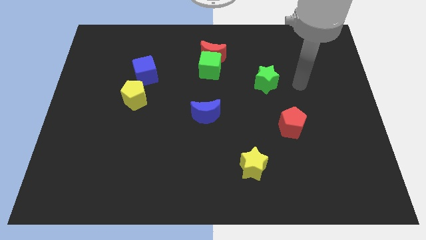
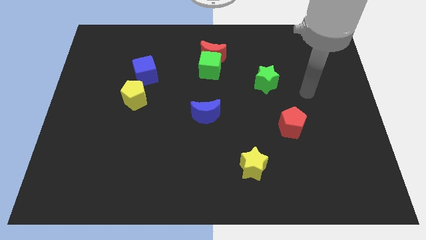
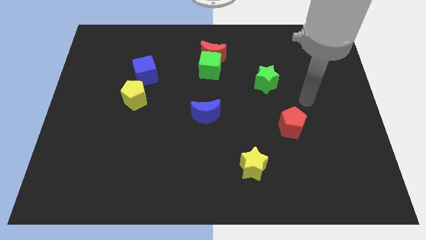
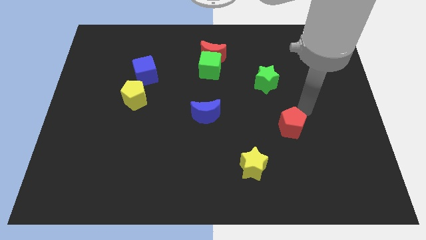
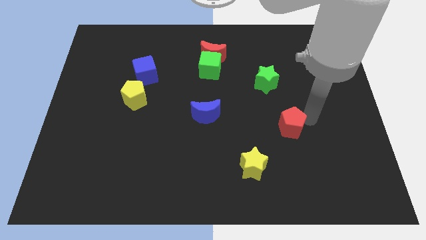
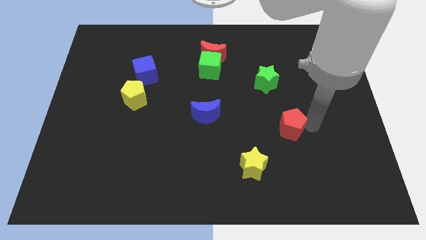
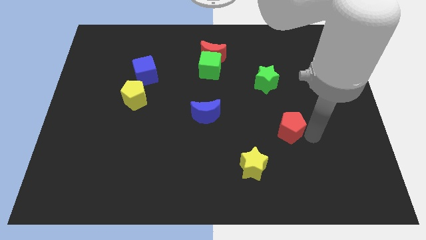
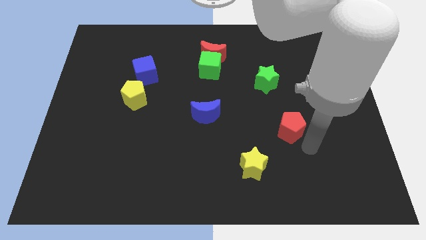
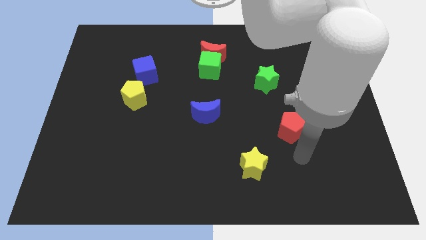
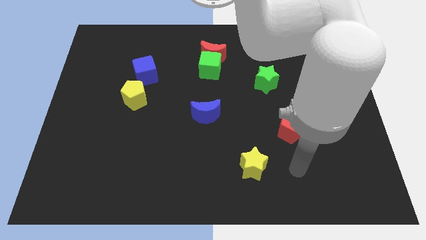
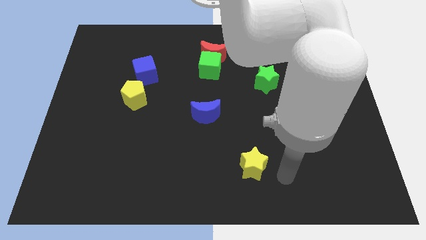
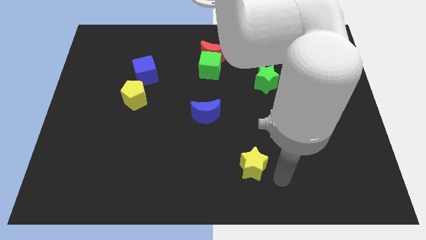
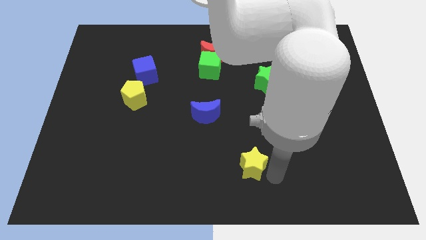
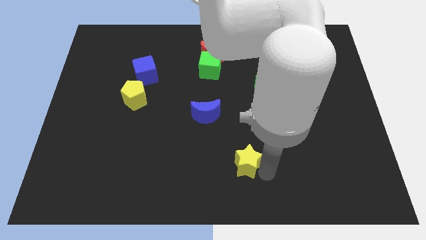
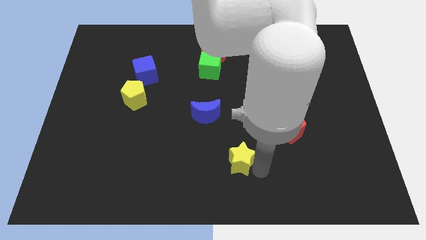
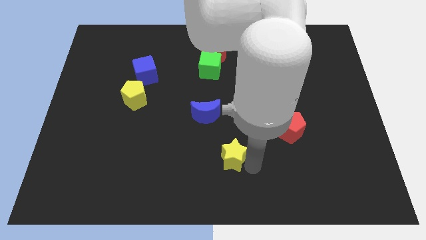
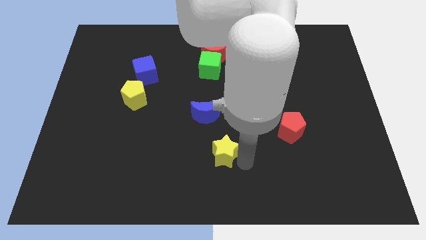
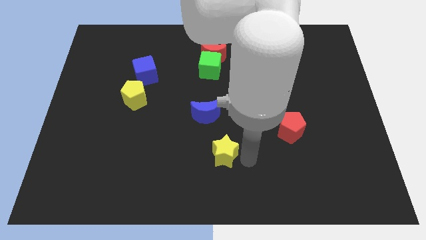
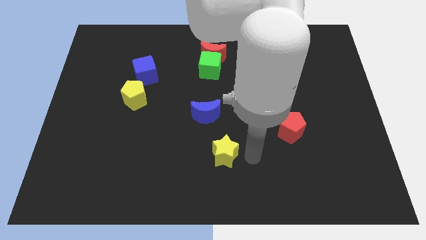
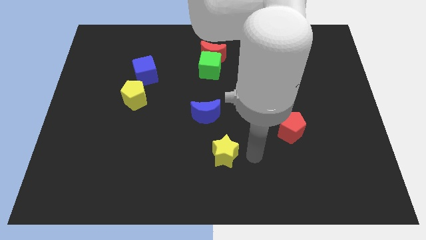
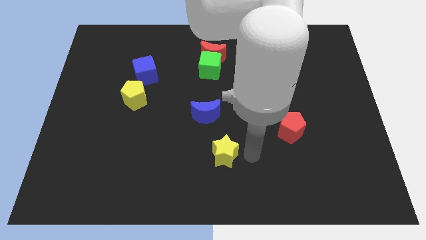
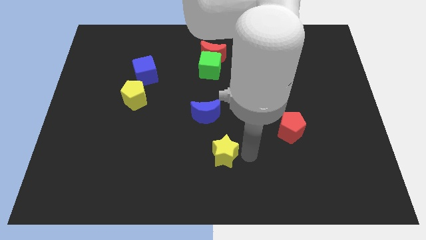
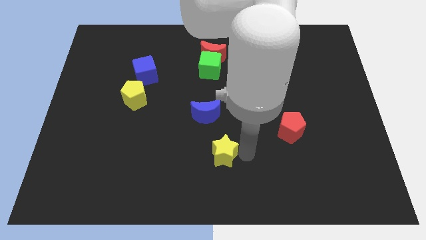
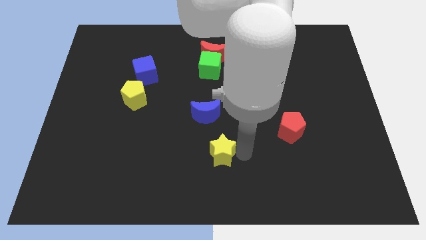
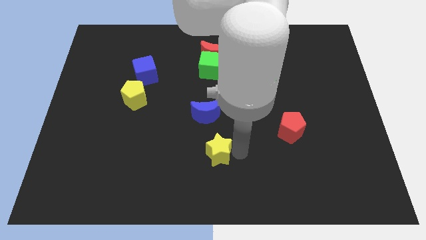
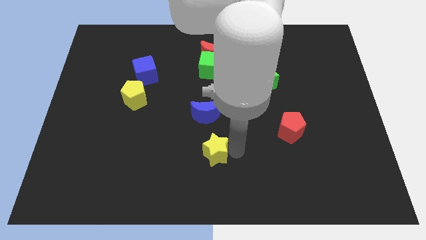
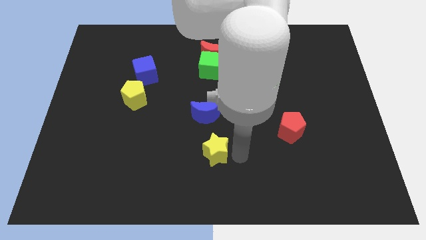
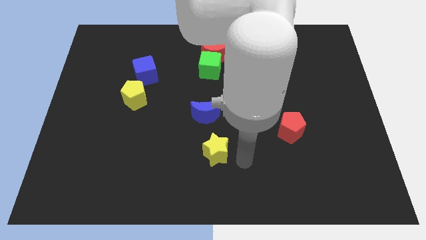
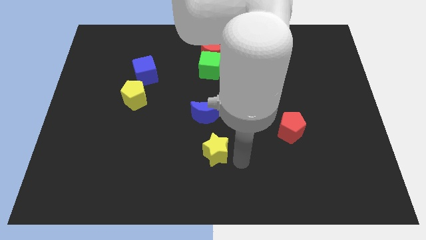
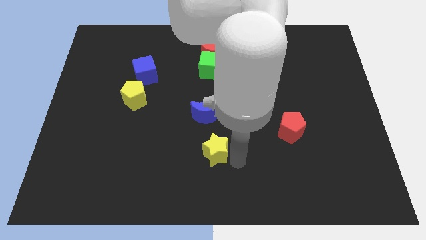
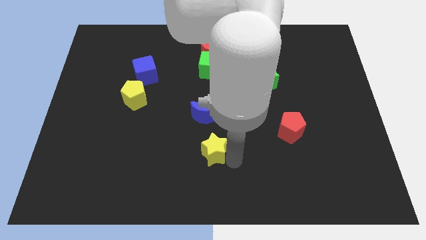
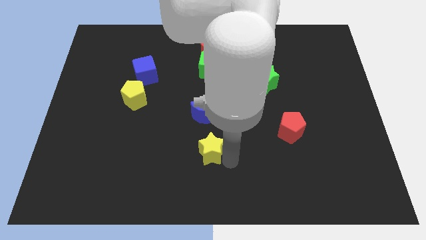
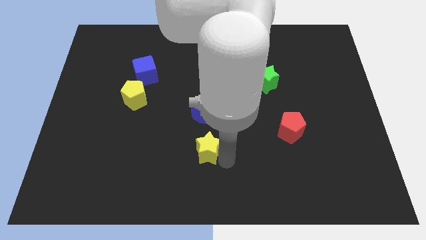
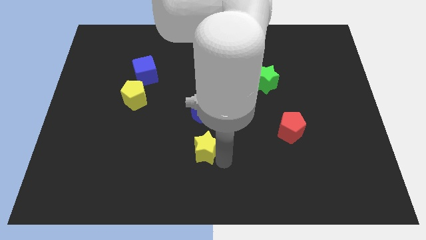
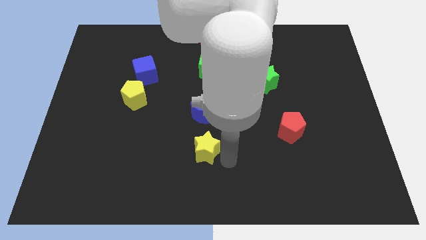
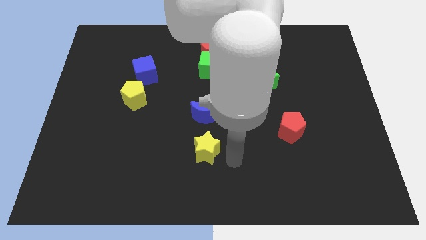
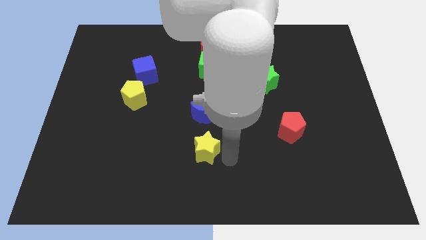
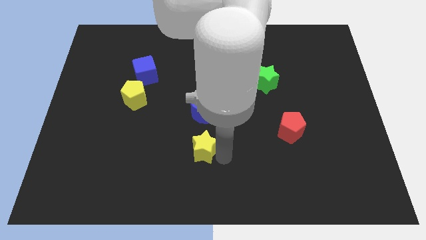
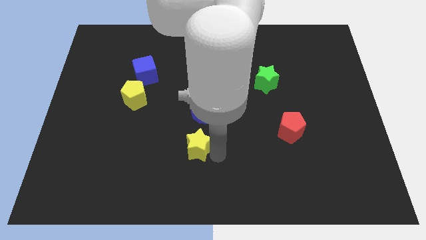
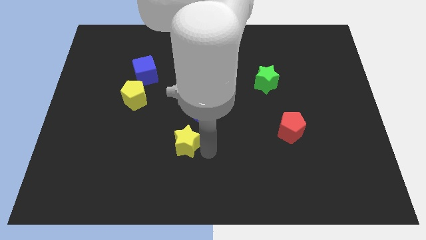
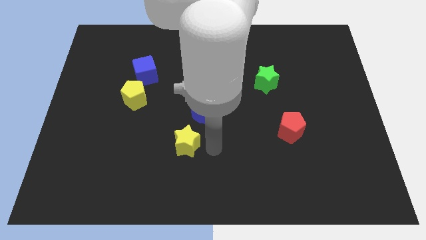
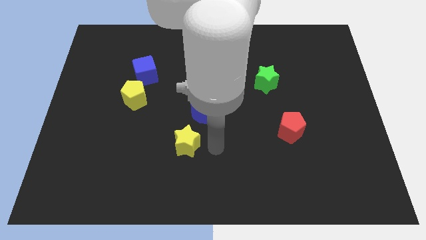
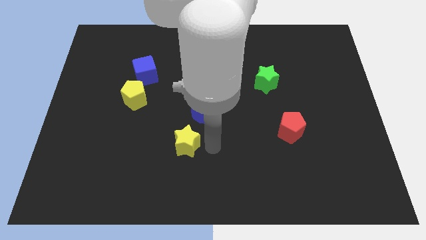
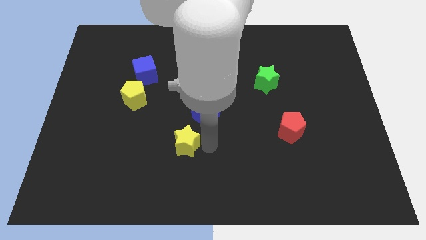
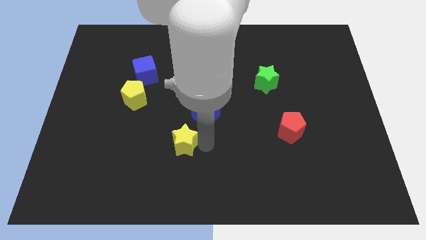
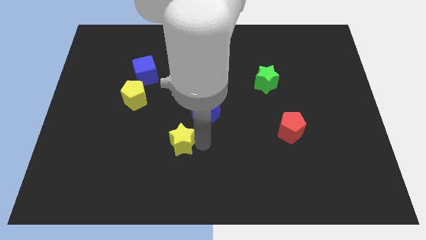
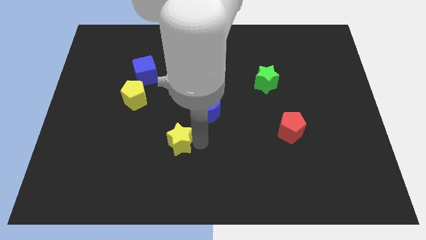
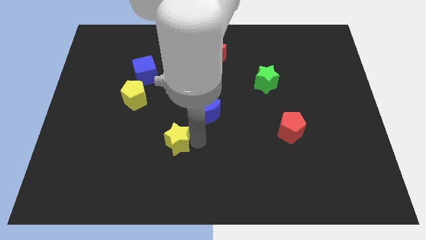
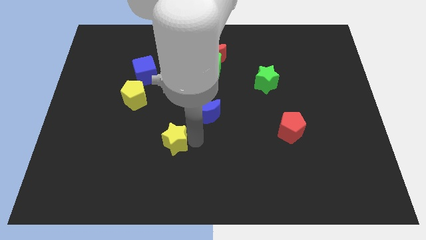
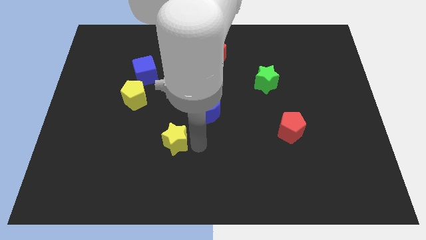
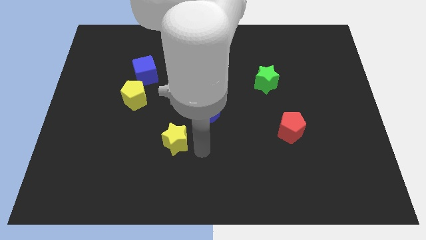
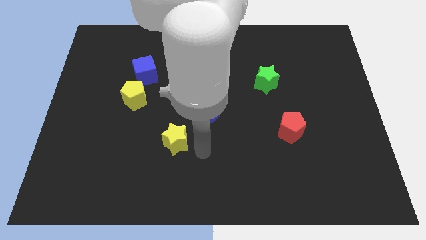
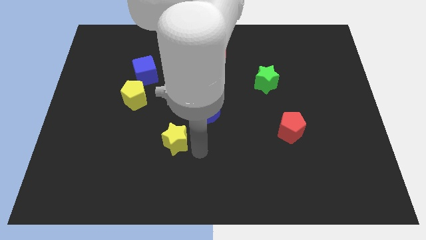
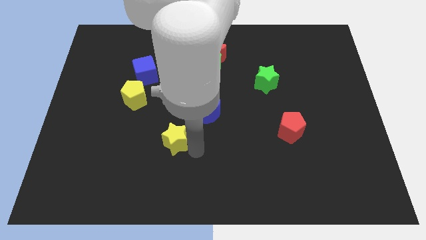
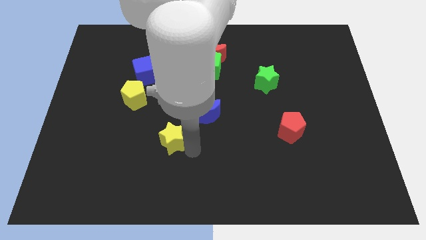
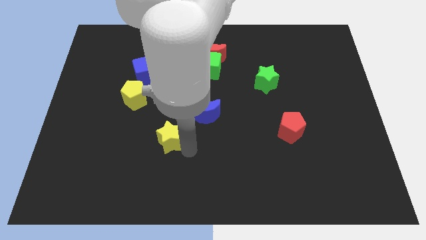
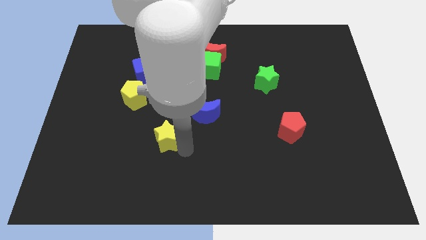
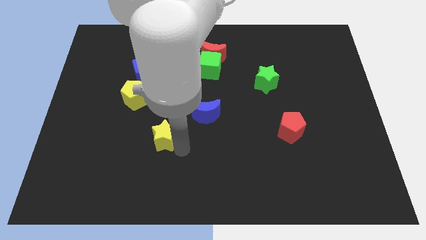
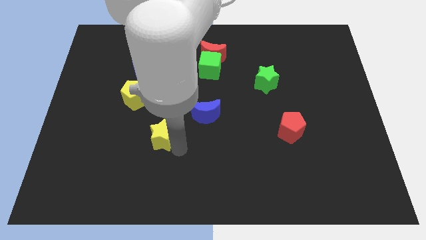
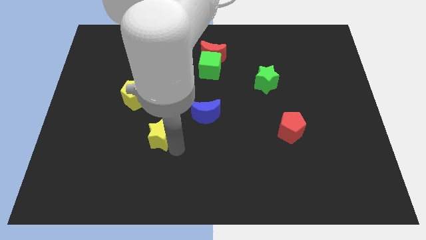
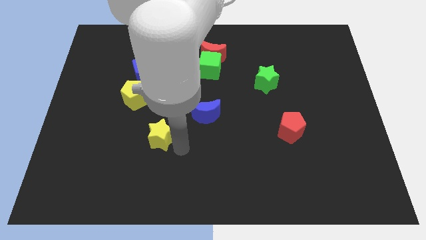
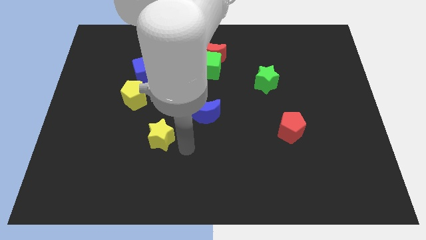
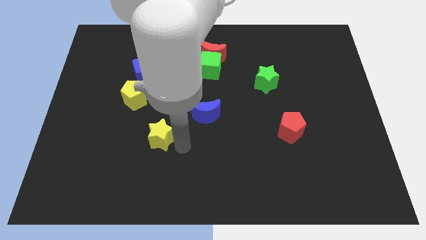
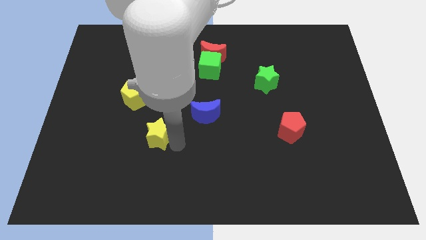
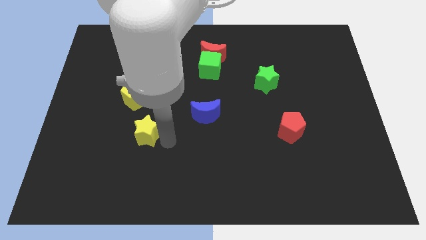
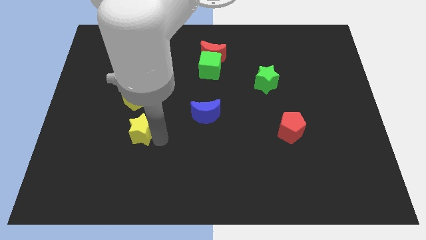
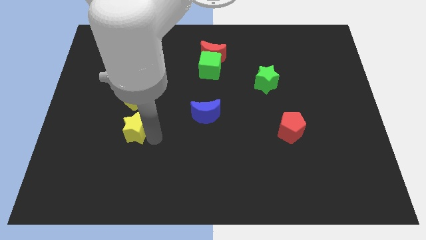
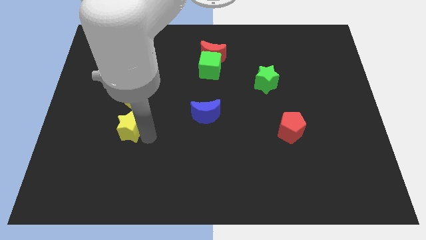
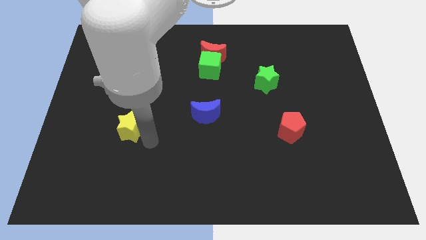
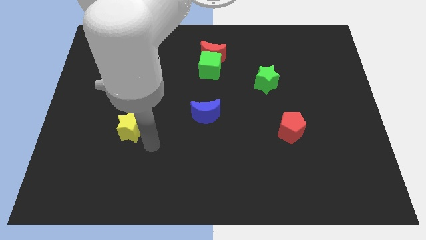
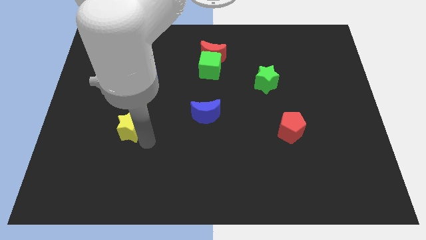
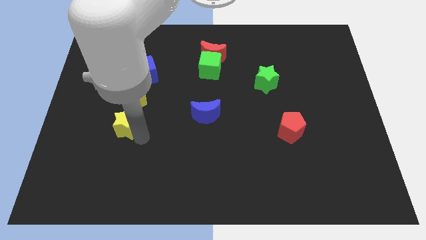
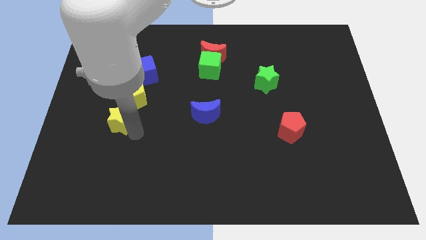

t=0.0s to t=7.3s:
put the yellow star to the bottom left side of the yellow pentagon

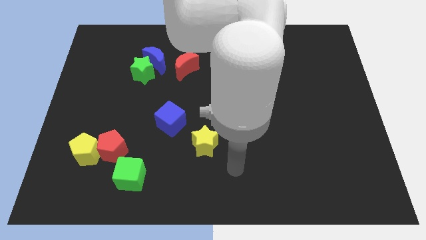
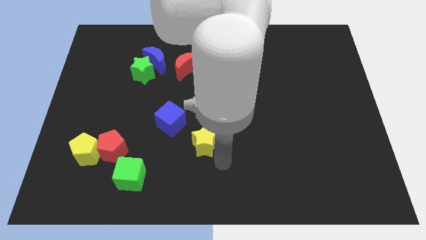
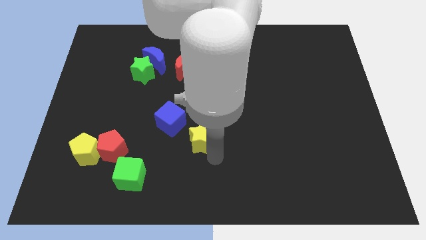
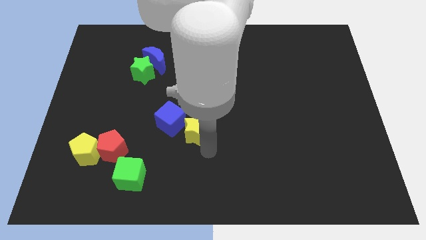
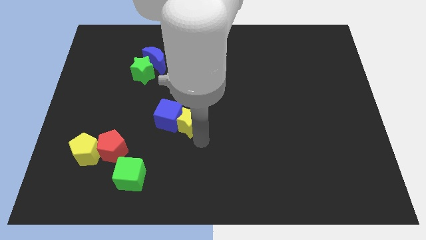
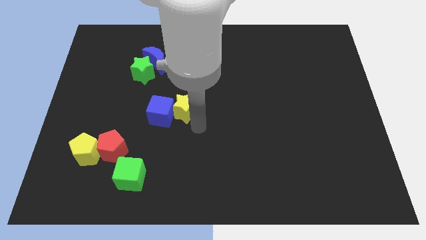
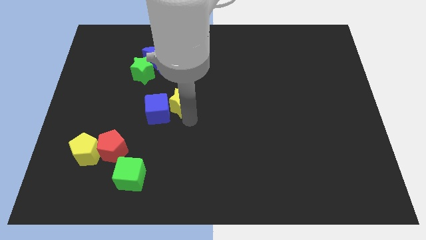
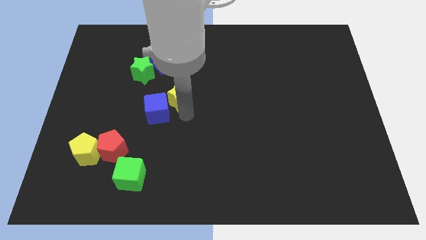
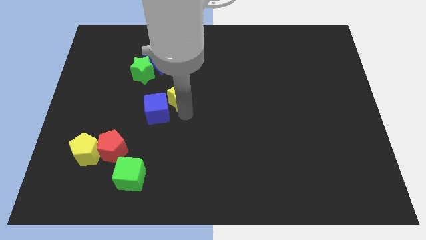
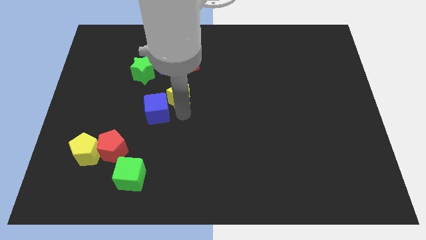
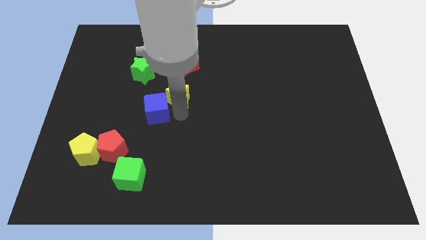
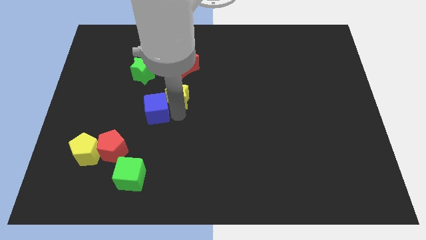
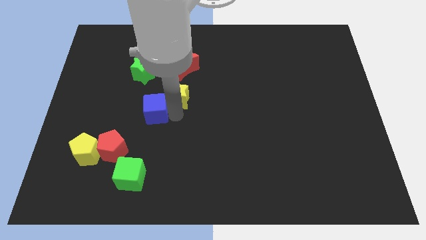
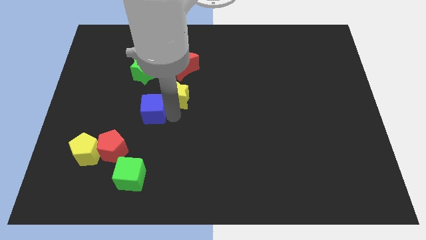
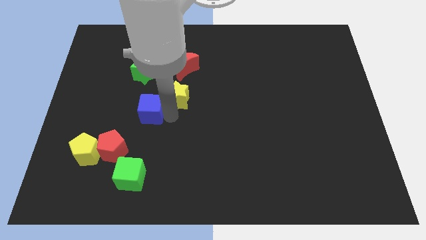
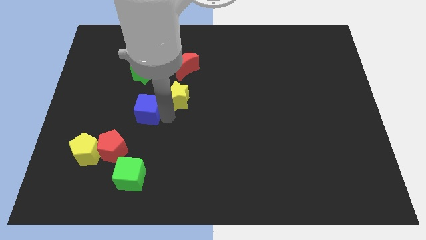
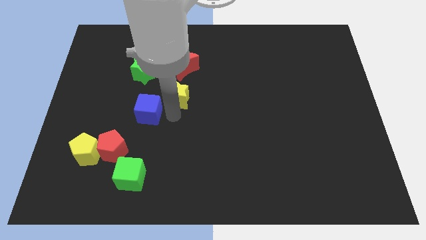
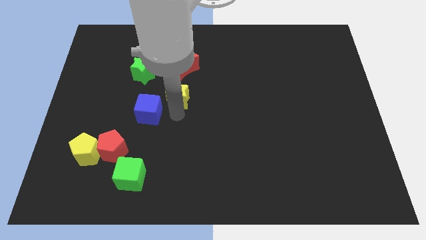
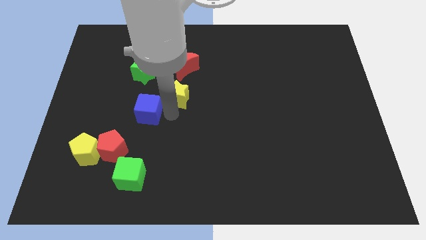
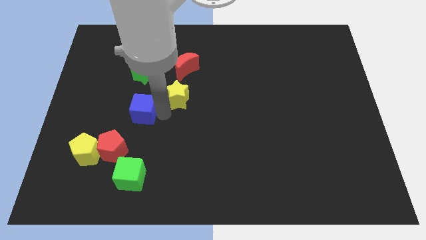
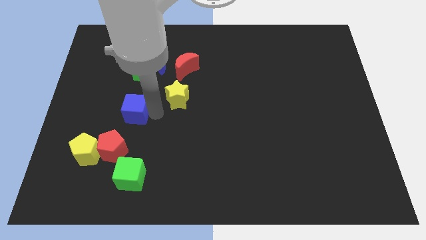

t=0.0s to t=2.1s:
put the blue cube above the red pentagon
